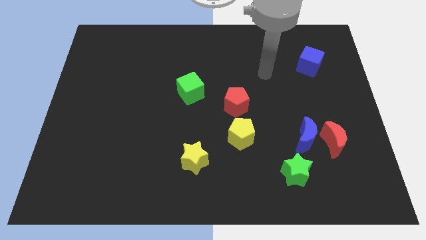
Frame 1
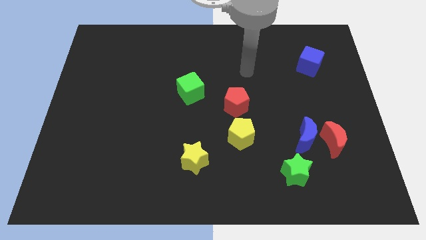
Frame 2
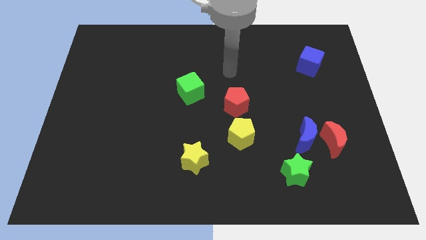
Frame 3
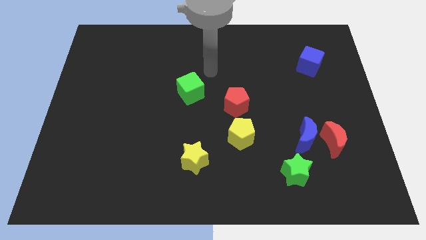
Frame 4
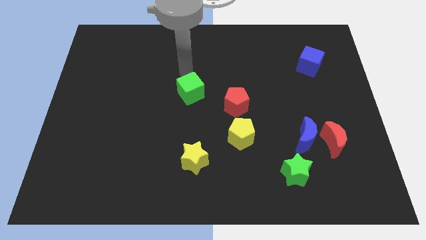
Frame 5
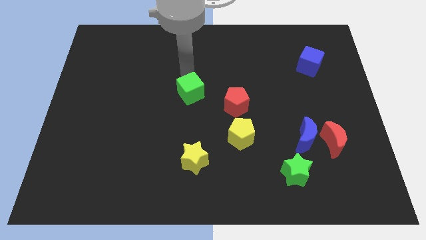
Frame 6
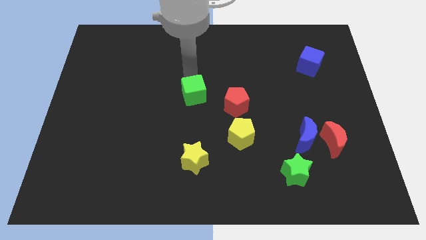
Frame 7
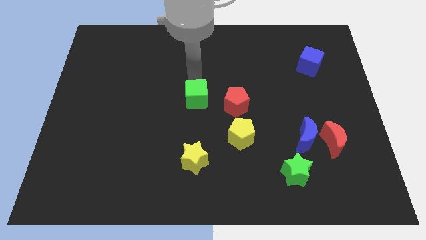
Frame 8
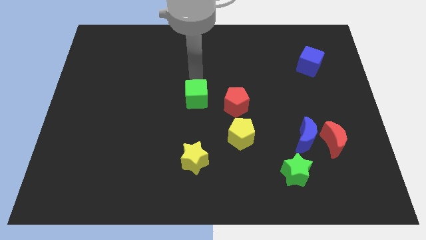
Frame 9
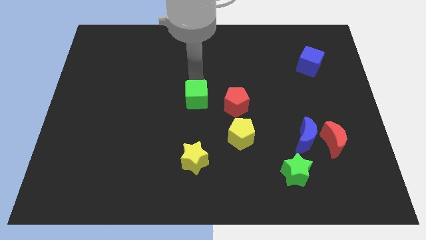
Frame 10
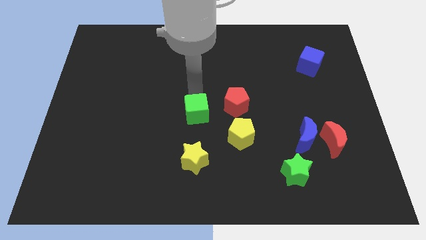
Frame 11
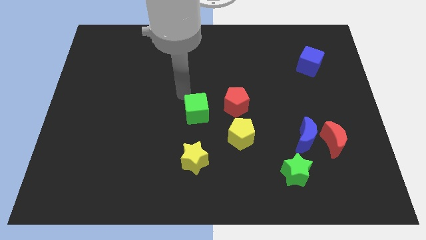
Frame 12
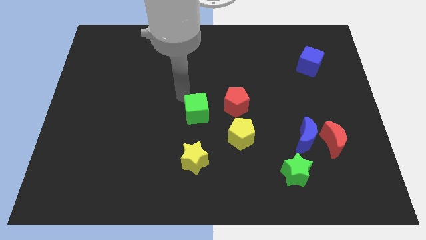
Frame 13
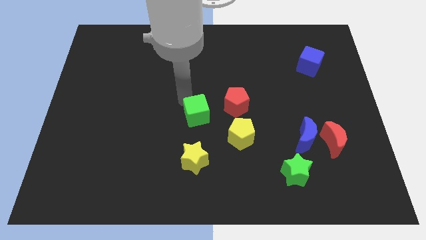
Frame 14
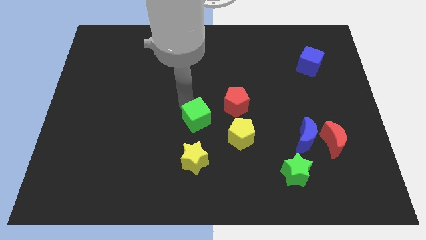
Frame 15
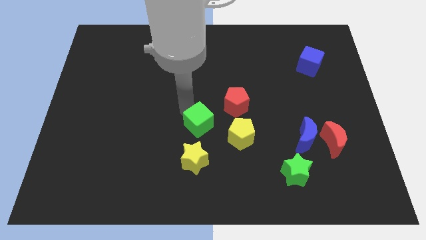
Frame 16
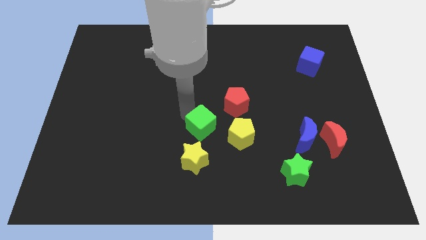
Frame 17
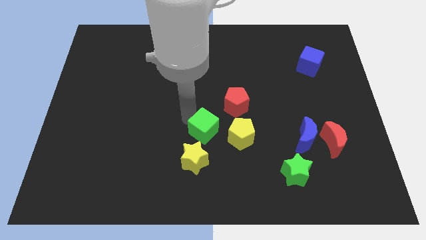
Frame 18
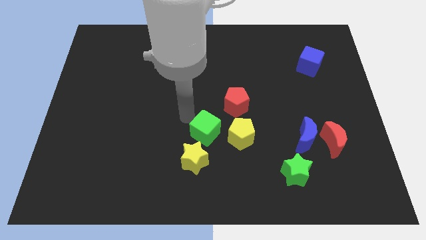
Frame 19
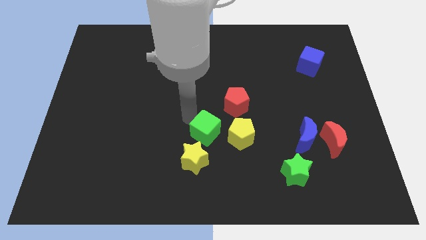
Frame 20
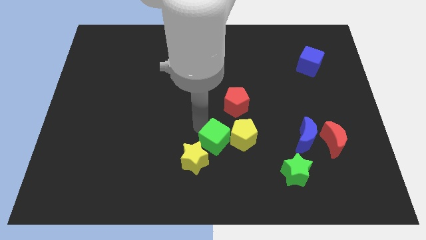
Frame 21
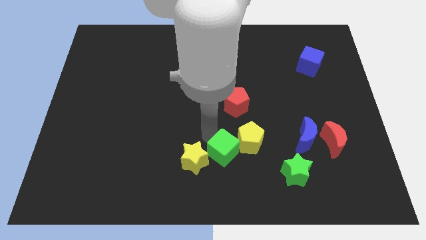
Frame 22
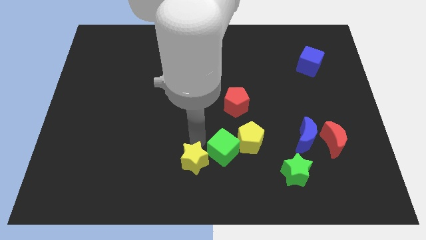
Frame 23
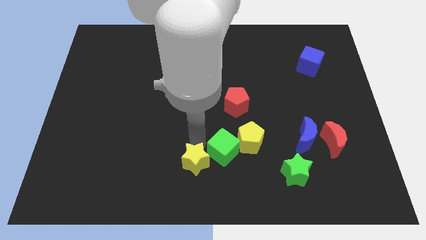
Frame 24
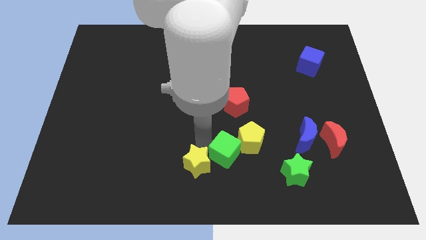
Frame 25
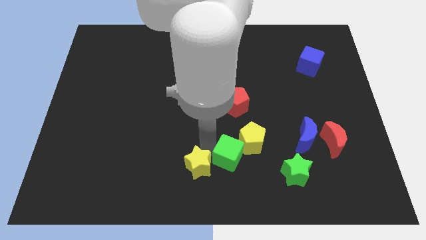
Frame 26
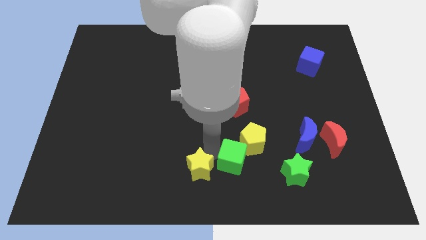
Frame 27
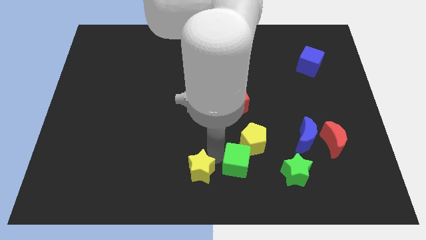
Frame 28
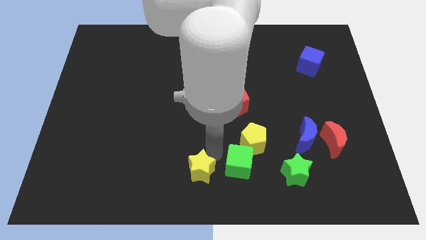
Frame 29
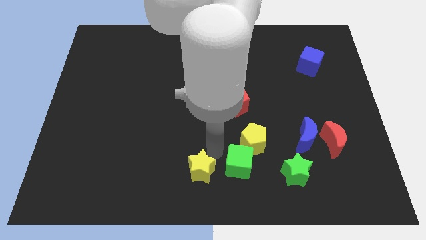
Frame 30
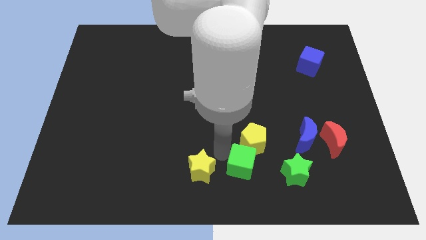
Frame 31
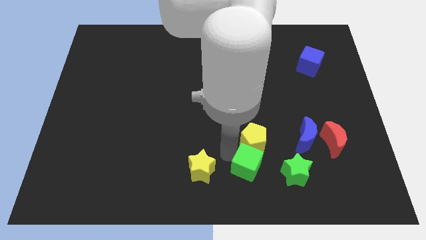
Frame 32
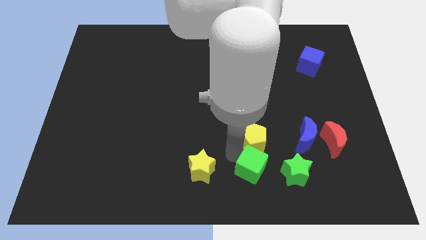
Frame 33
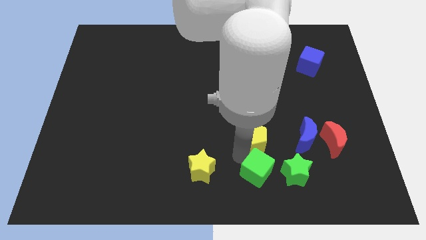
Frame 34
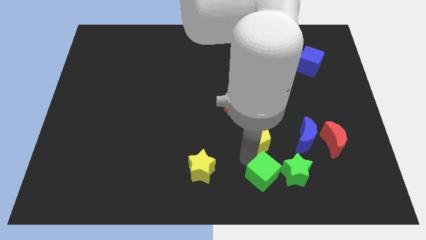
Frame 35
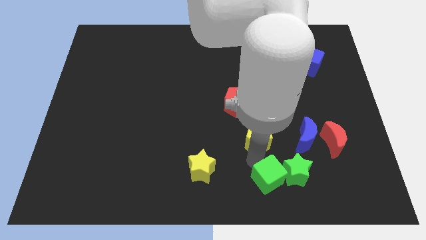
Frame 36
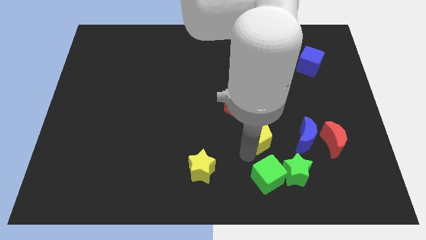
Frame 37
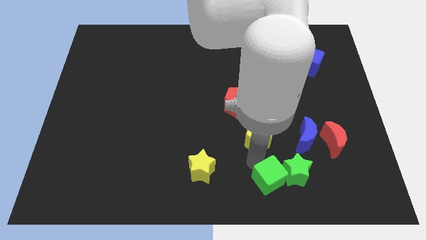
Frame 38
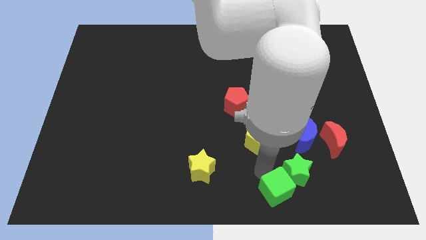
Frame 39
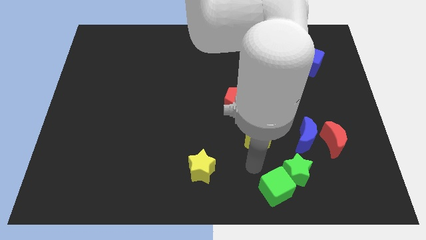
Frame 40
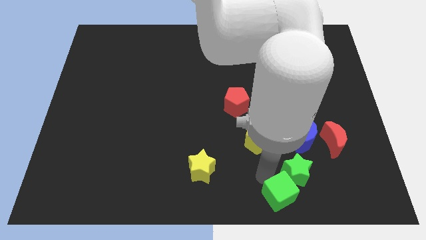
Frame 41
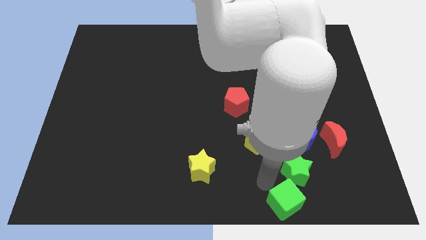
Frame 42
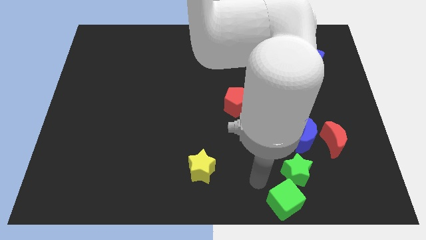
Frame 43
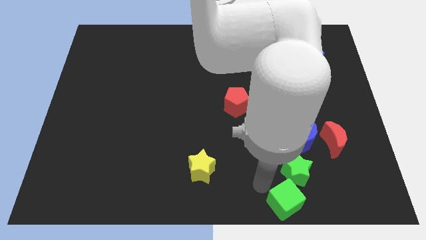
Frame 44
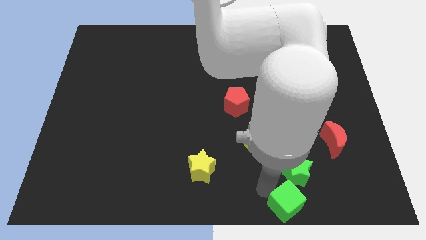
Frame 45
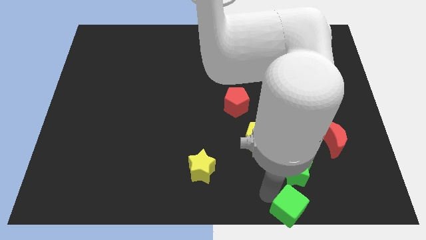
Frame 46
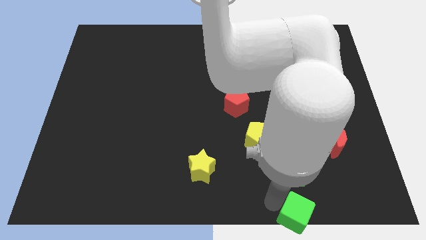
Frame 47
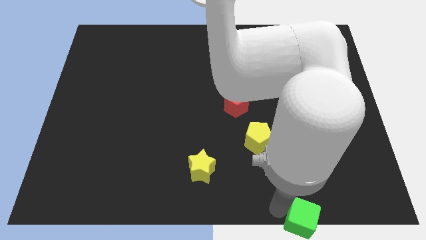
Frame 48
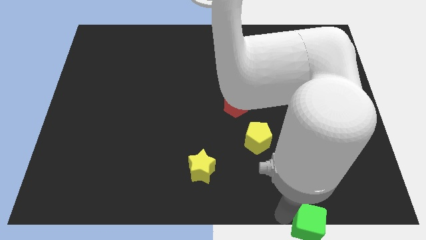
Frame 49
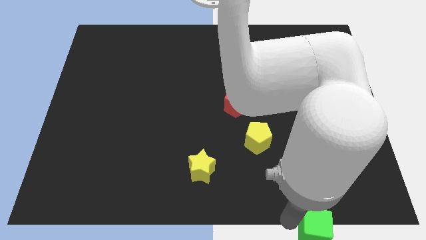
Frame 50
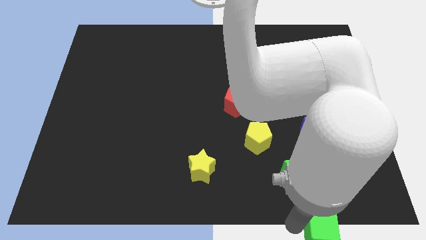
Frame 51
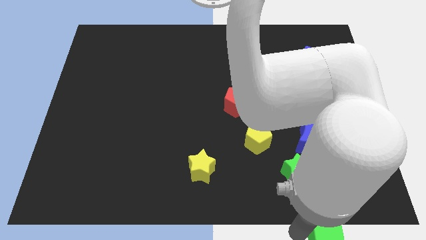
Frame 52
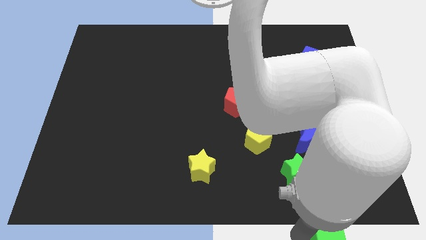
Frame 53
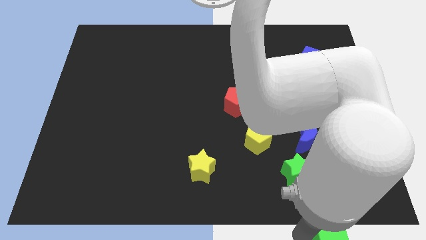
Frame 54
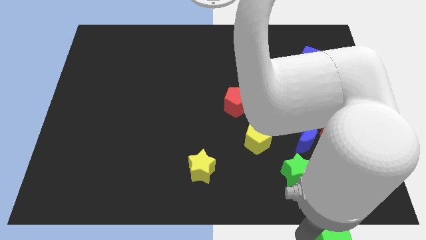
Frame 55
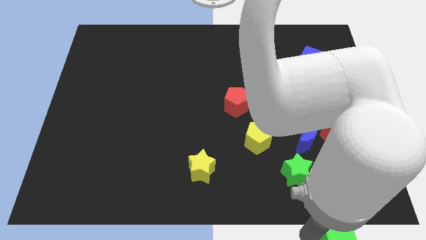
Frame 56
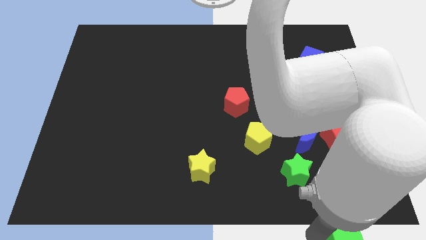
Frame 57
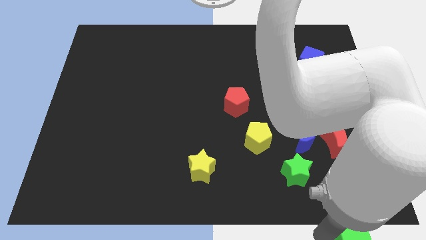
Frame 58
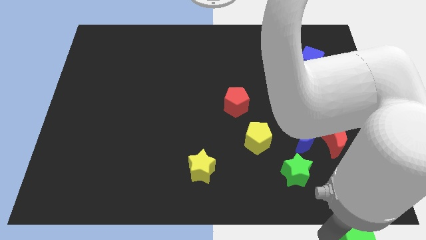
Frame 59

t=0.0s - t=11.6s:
move the green cube to the lower right corner
